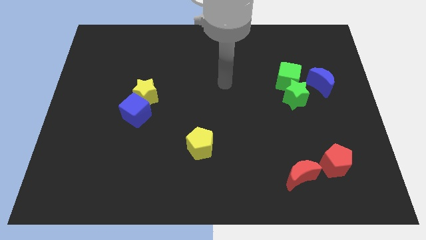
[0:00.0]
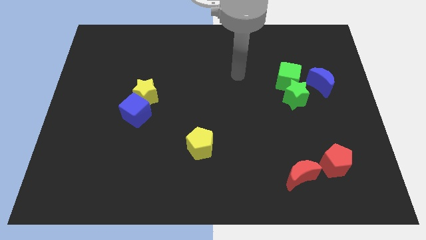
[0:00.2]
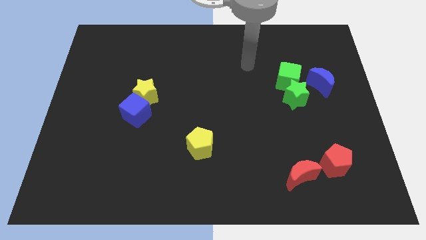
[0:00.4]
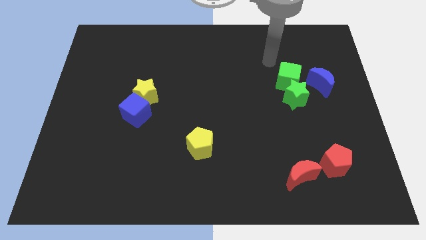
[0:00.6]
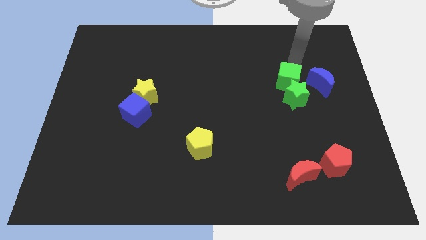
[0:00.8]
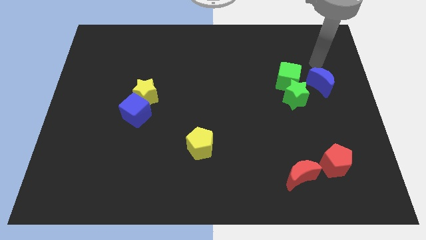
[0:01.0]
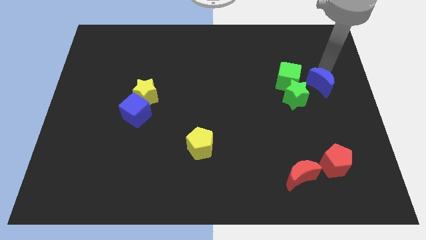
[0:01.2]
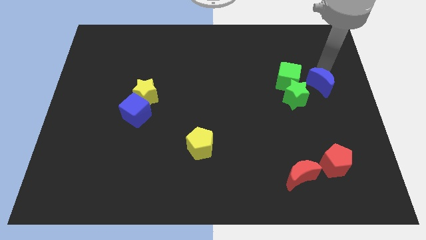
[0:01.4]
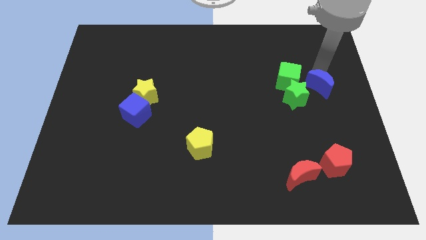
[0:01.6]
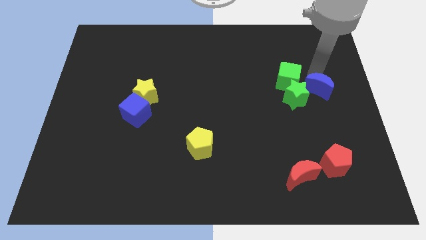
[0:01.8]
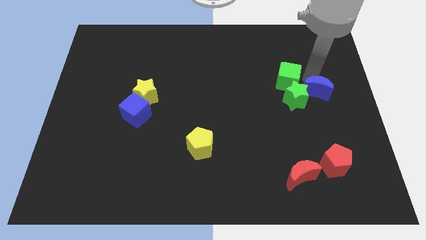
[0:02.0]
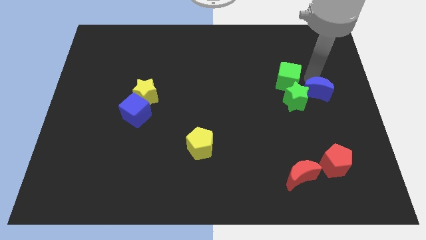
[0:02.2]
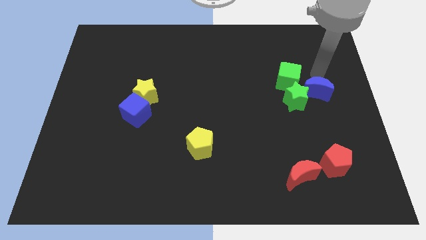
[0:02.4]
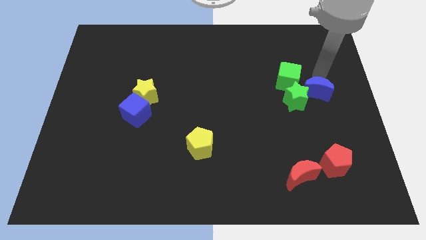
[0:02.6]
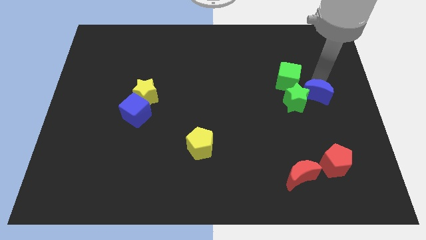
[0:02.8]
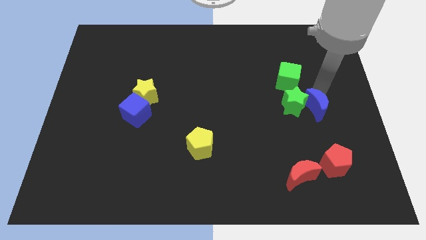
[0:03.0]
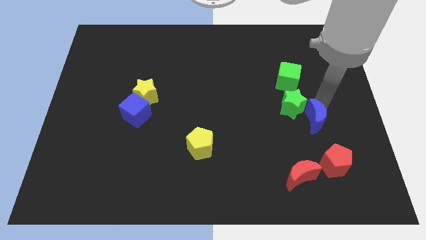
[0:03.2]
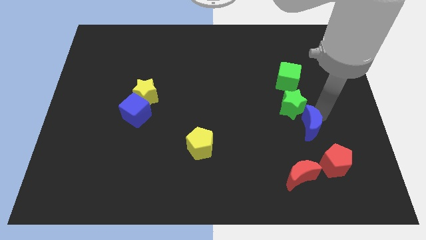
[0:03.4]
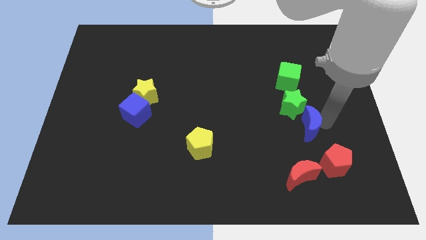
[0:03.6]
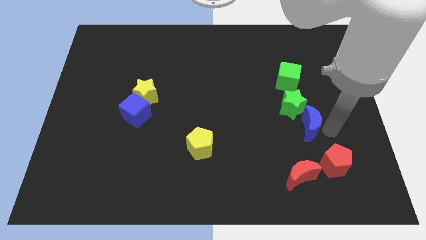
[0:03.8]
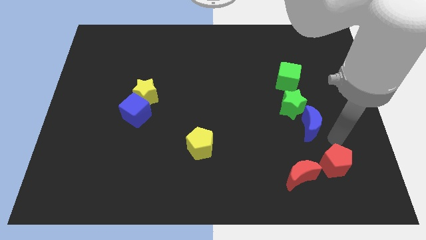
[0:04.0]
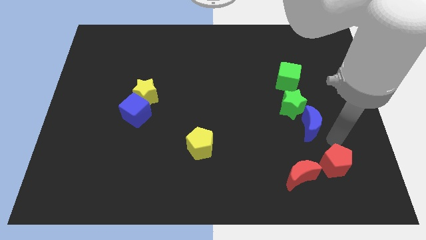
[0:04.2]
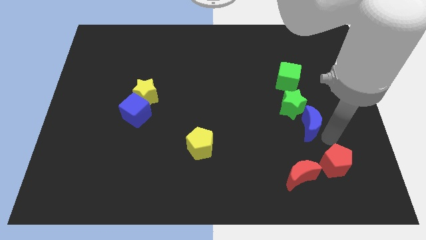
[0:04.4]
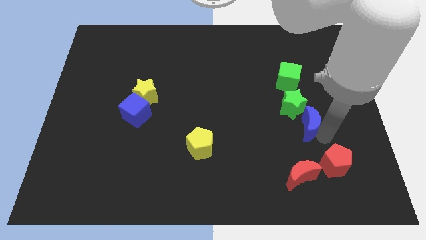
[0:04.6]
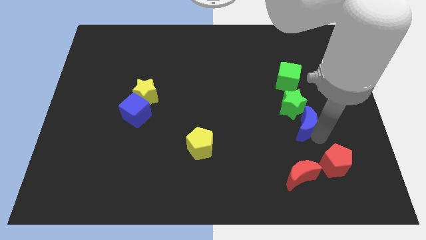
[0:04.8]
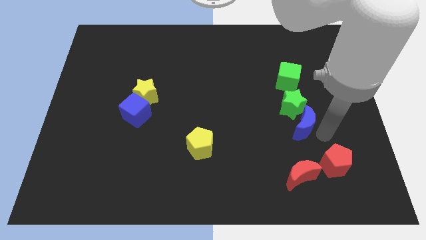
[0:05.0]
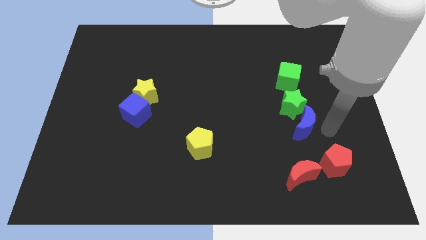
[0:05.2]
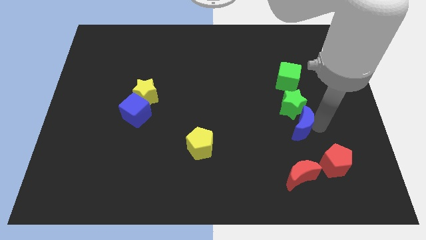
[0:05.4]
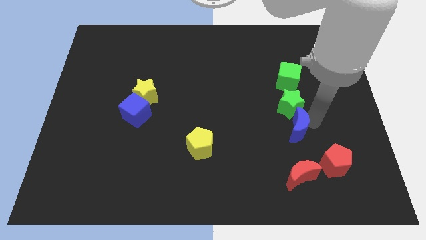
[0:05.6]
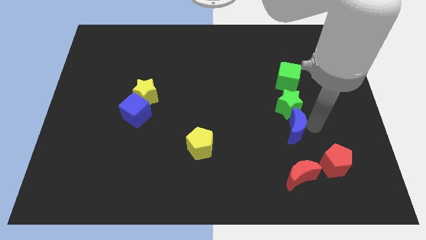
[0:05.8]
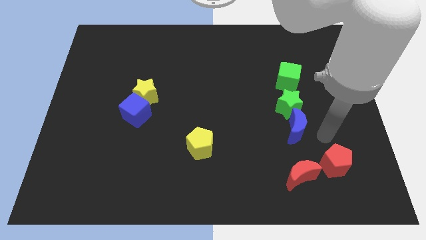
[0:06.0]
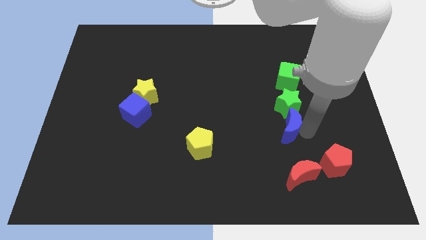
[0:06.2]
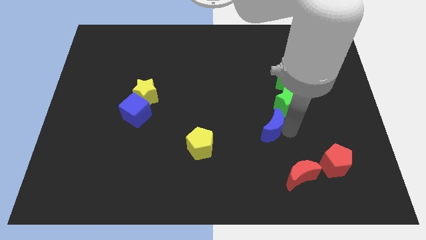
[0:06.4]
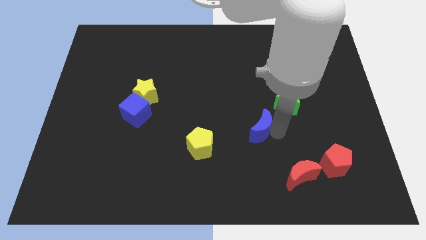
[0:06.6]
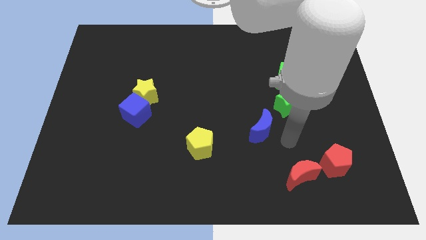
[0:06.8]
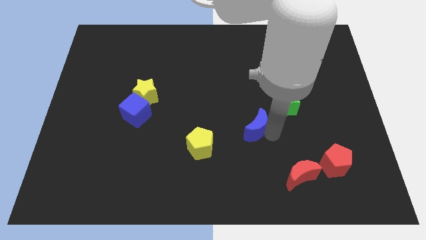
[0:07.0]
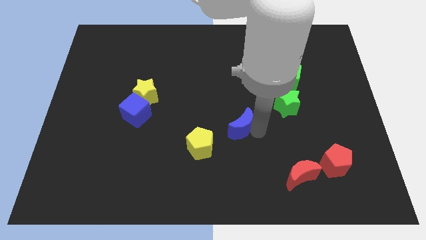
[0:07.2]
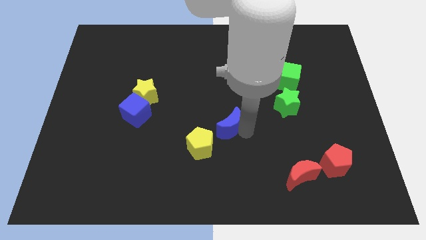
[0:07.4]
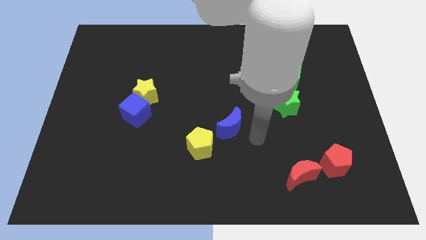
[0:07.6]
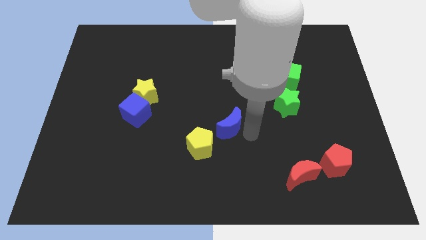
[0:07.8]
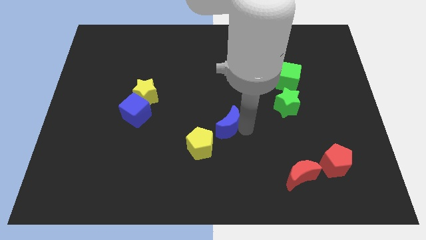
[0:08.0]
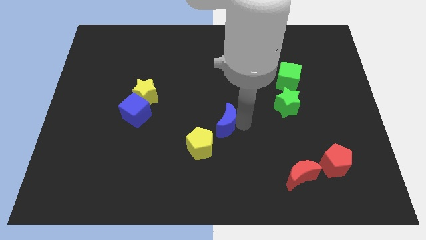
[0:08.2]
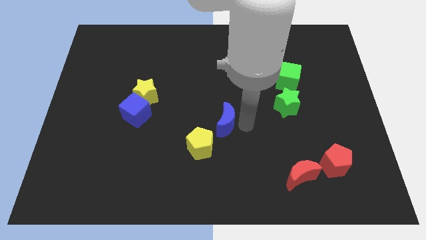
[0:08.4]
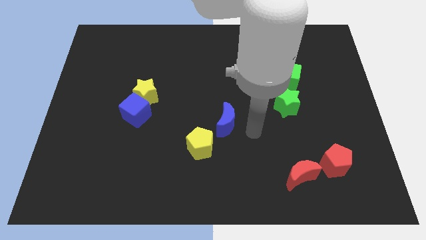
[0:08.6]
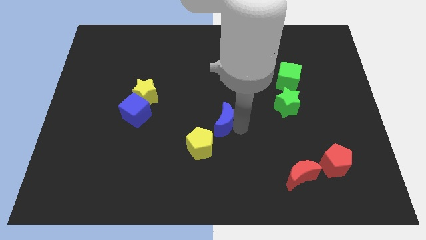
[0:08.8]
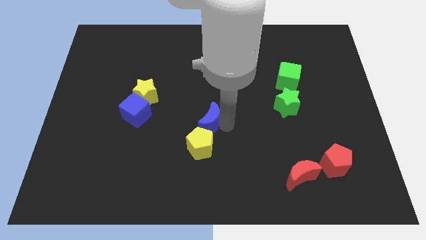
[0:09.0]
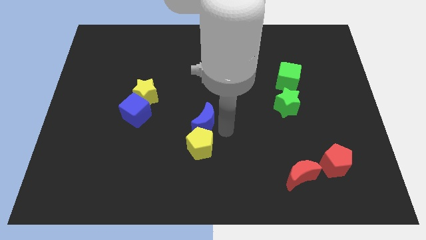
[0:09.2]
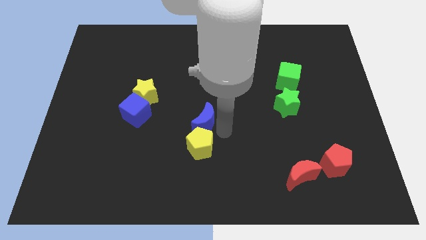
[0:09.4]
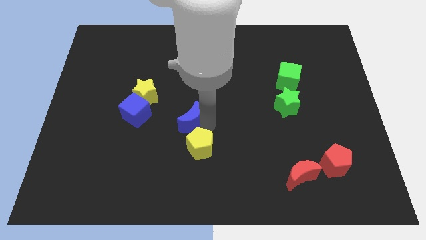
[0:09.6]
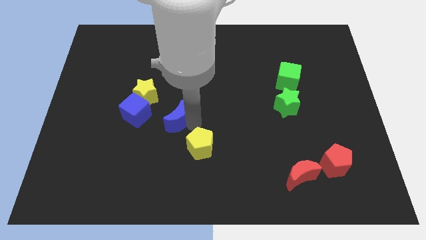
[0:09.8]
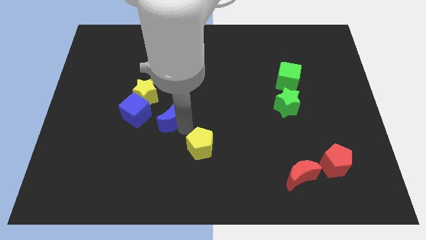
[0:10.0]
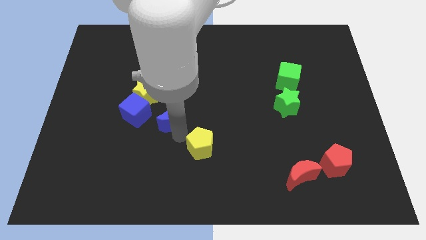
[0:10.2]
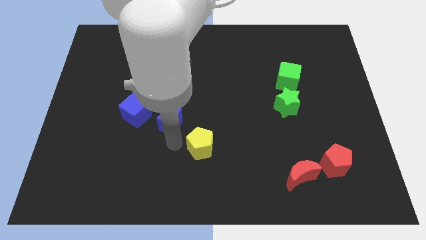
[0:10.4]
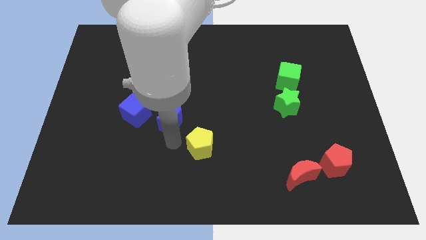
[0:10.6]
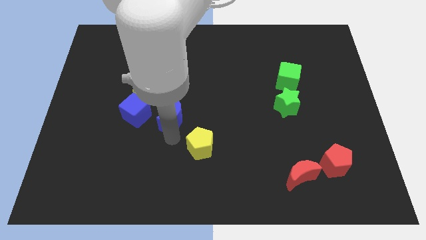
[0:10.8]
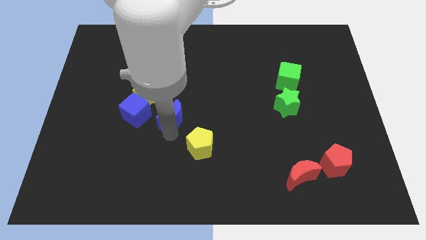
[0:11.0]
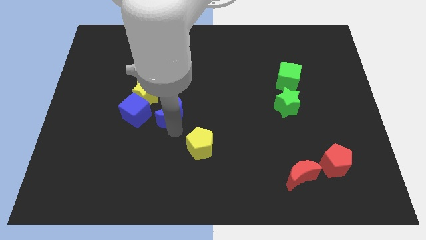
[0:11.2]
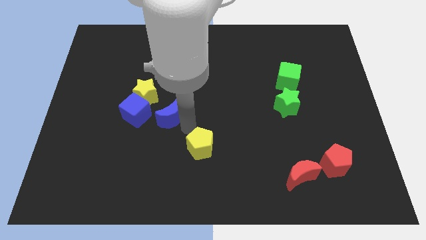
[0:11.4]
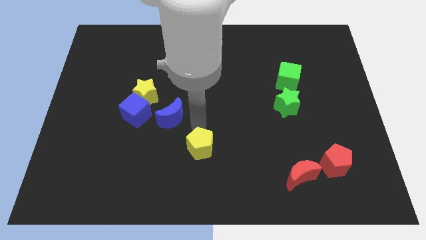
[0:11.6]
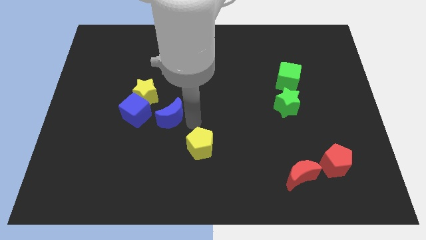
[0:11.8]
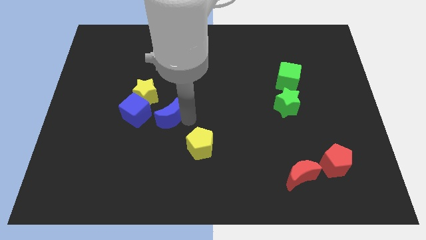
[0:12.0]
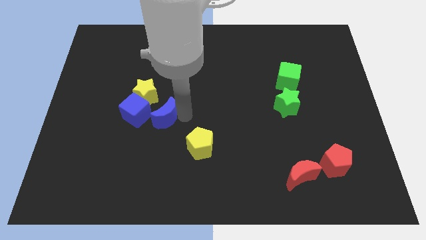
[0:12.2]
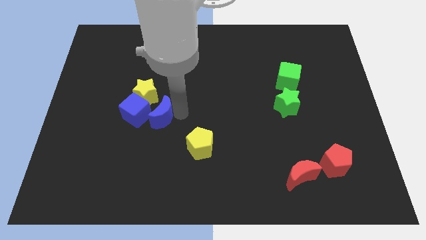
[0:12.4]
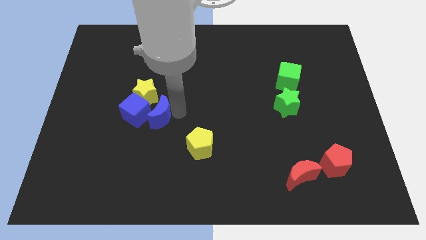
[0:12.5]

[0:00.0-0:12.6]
move the blue moon close to the blue cube

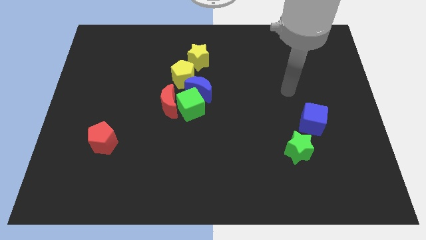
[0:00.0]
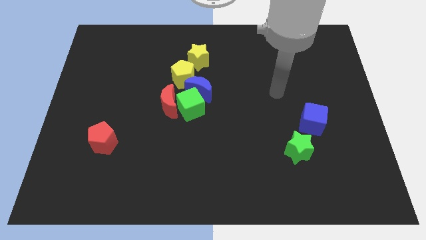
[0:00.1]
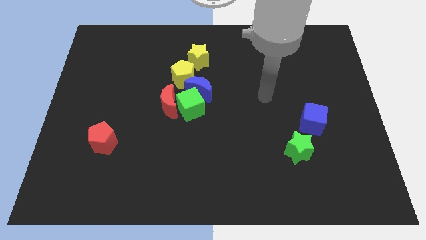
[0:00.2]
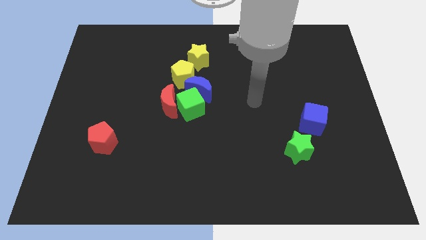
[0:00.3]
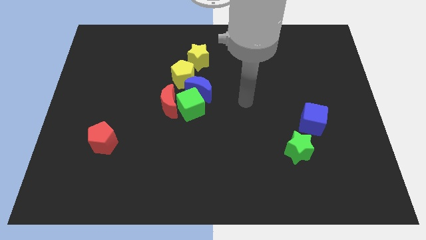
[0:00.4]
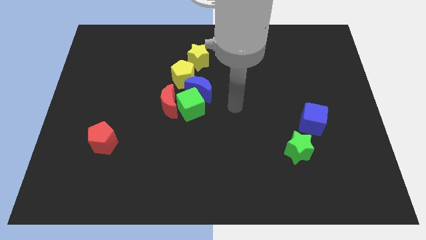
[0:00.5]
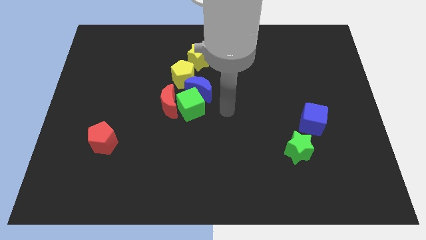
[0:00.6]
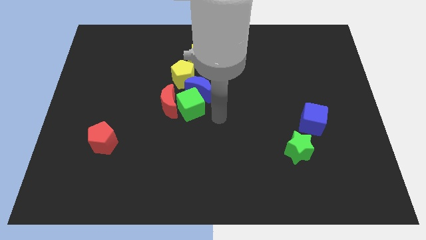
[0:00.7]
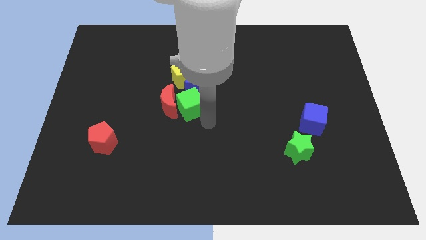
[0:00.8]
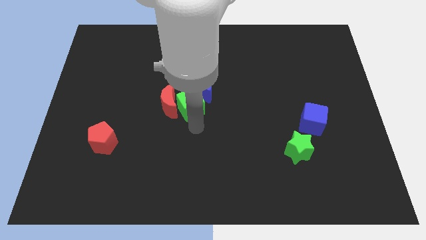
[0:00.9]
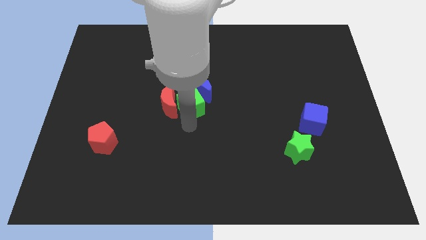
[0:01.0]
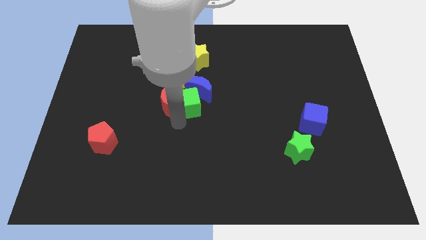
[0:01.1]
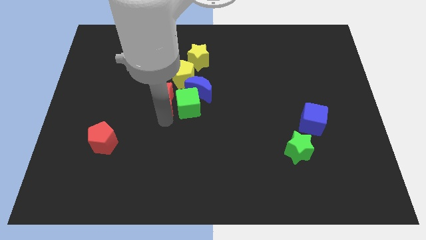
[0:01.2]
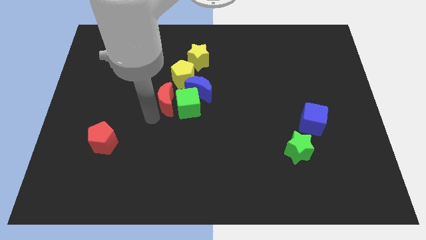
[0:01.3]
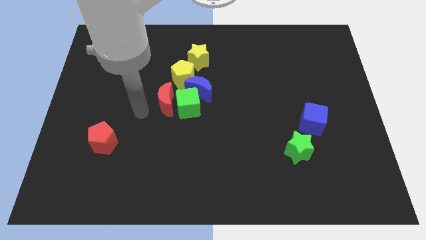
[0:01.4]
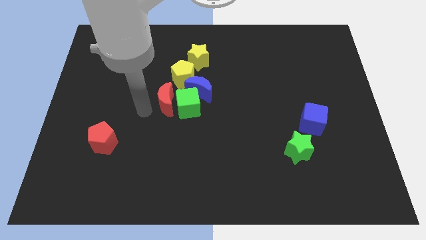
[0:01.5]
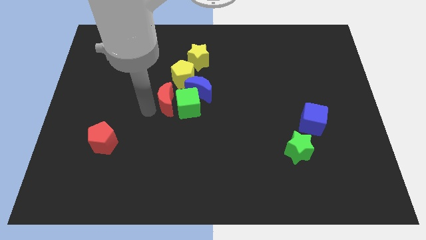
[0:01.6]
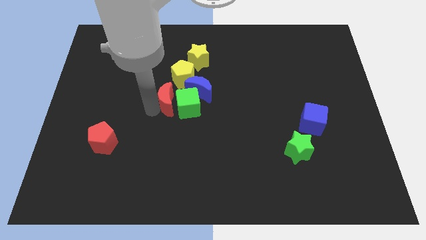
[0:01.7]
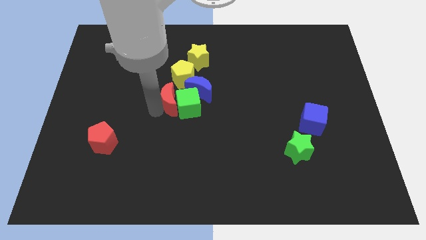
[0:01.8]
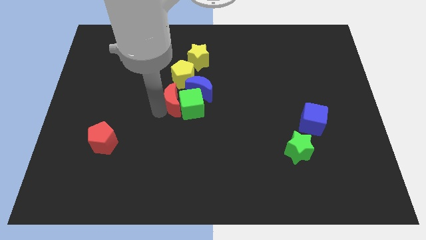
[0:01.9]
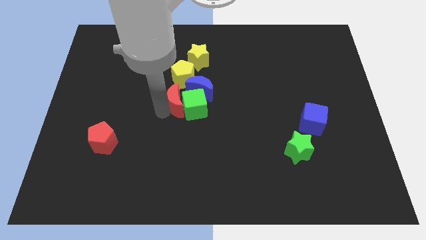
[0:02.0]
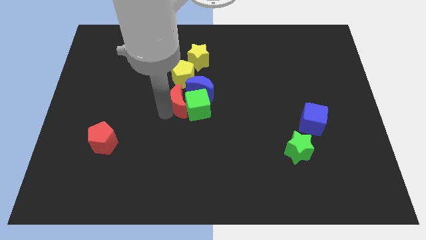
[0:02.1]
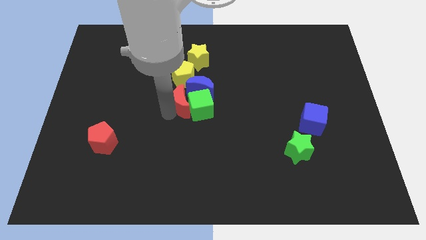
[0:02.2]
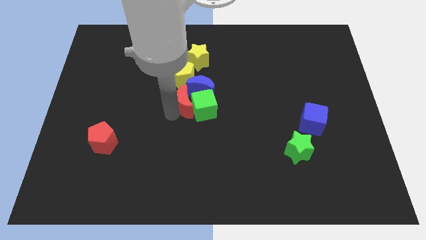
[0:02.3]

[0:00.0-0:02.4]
put the red moon close to the blue moon
